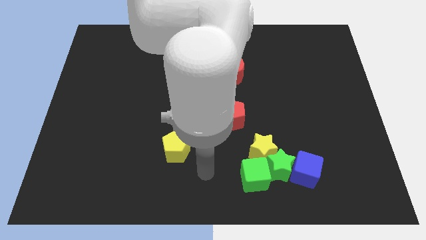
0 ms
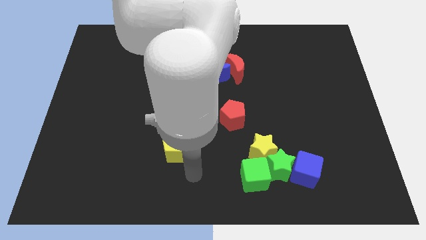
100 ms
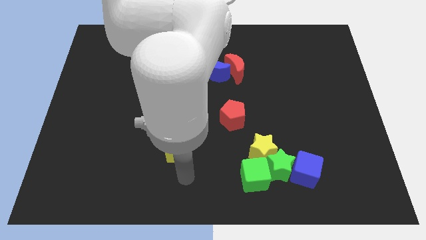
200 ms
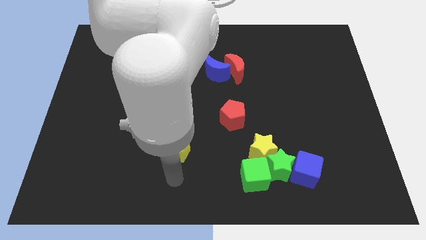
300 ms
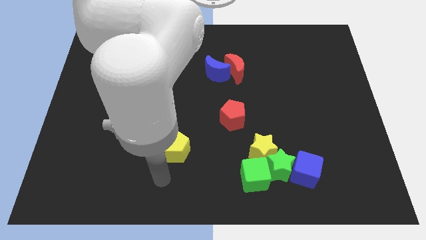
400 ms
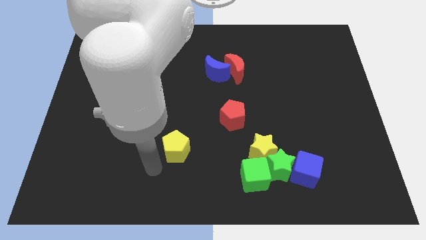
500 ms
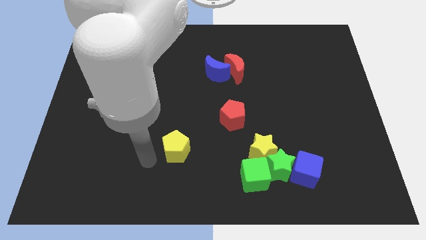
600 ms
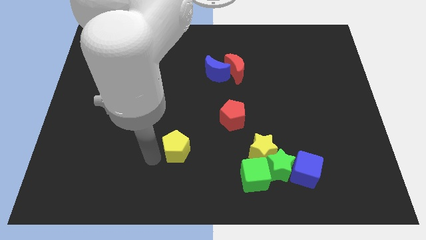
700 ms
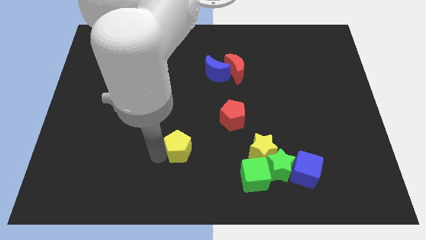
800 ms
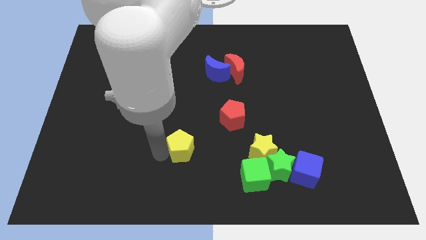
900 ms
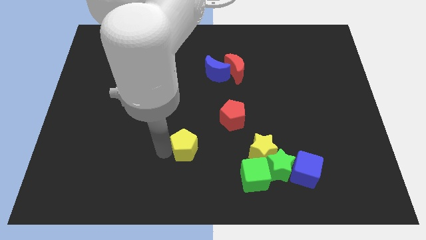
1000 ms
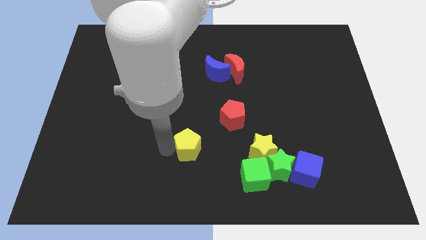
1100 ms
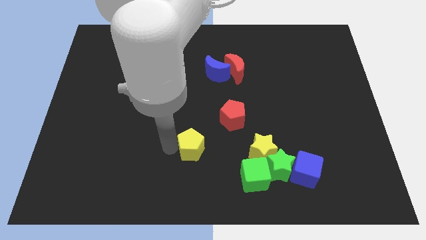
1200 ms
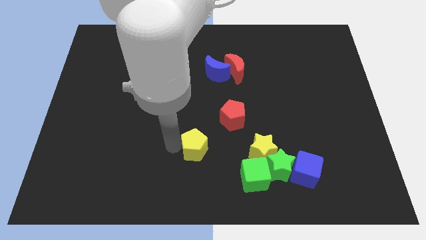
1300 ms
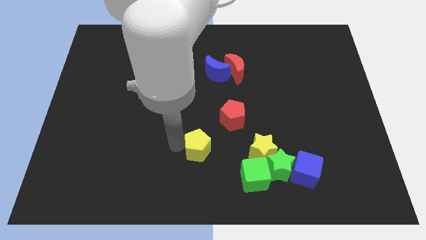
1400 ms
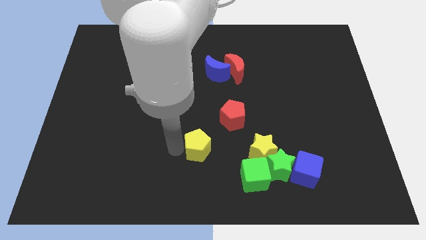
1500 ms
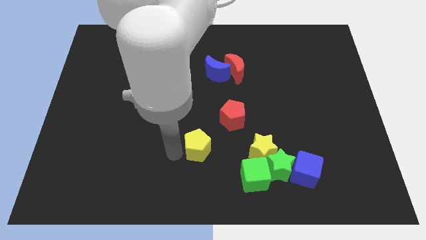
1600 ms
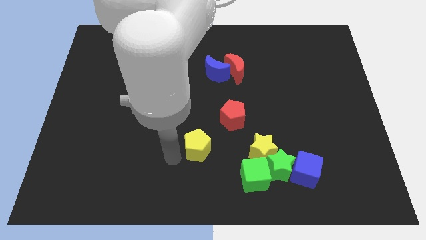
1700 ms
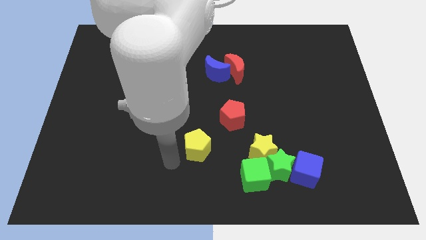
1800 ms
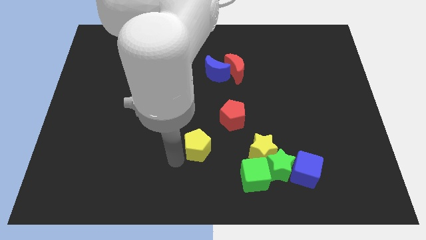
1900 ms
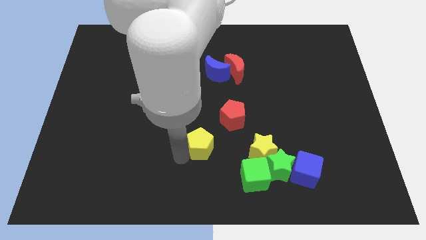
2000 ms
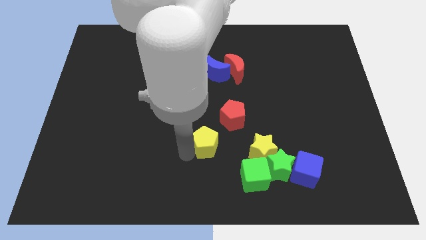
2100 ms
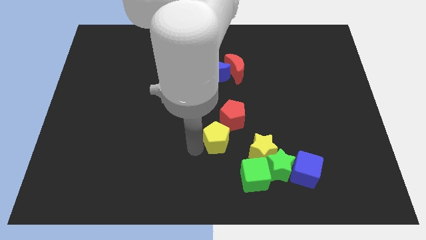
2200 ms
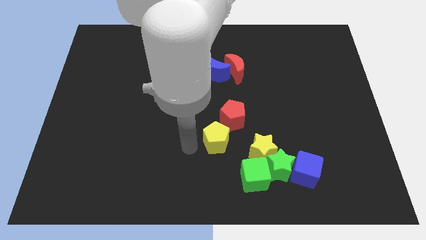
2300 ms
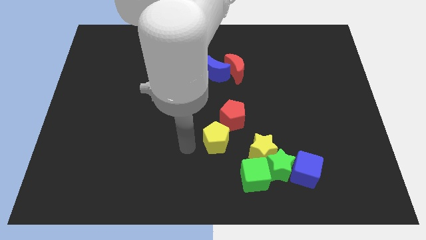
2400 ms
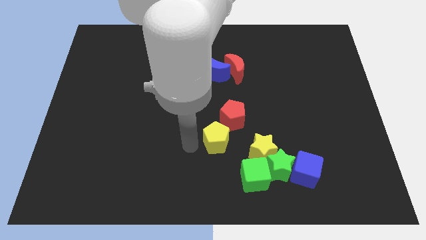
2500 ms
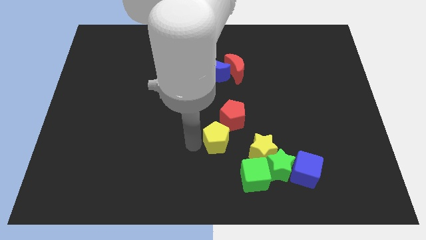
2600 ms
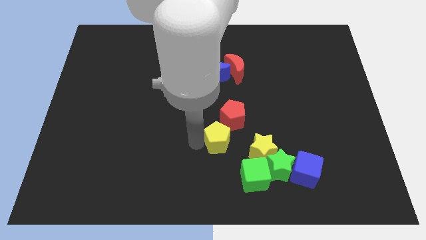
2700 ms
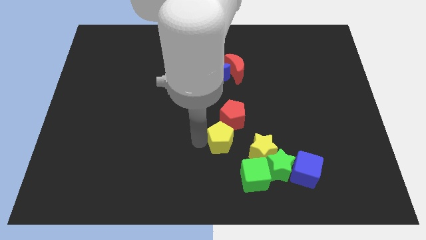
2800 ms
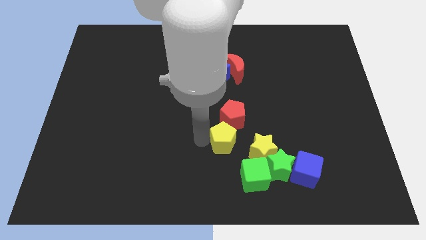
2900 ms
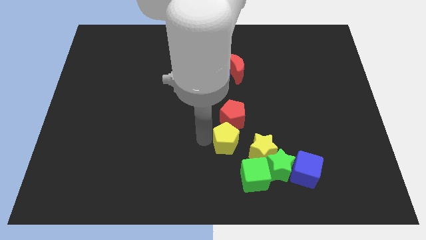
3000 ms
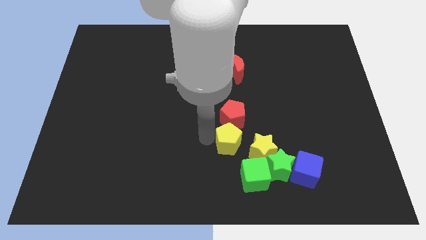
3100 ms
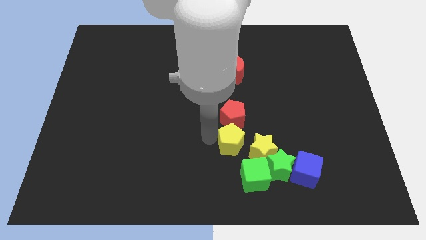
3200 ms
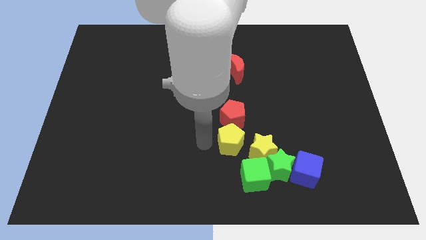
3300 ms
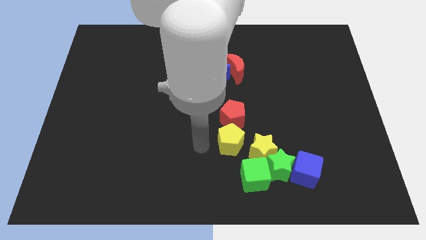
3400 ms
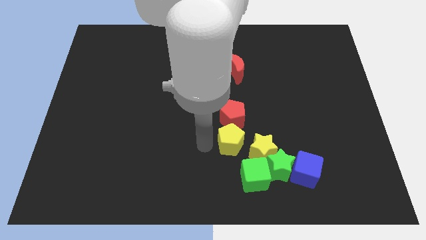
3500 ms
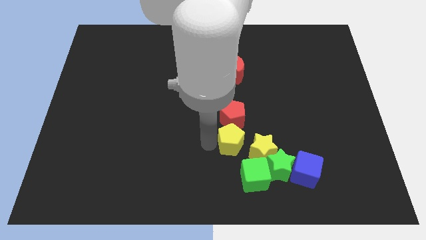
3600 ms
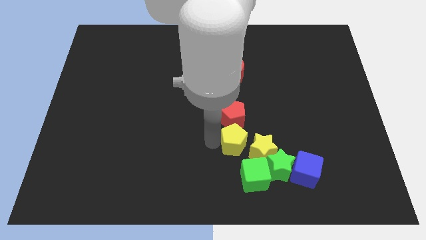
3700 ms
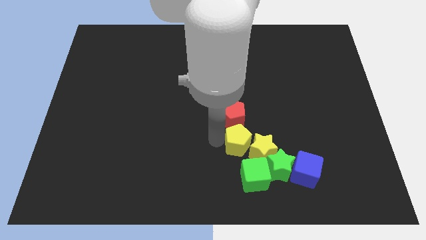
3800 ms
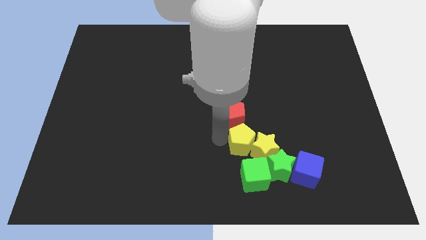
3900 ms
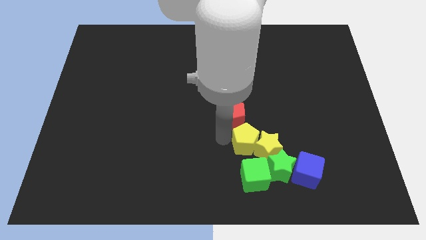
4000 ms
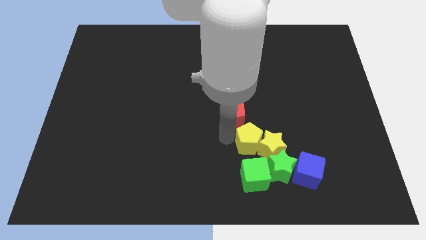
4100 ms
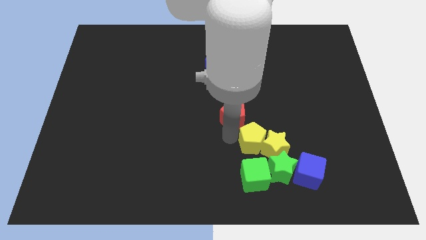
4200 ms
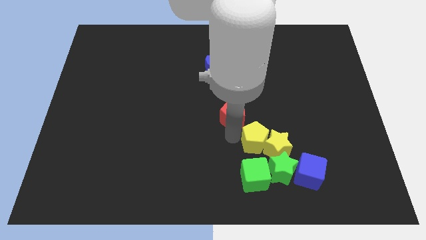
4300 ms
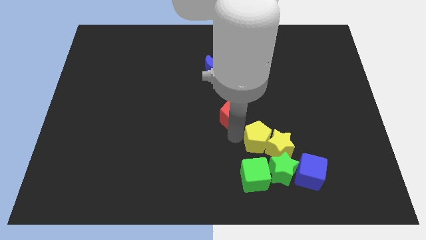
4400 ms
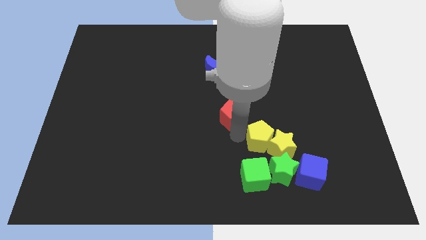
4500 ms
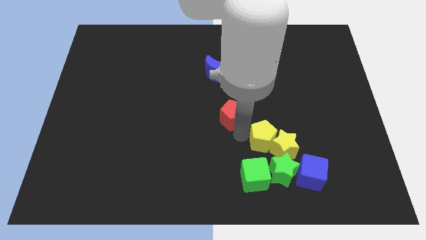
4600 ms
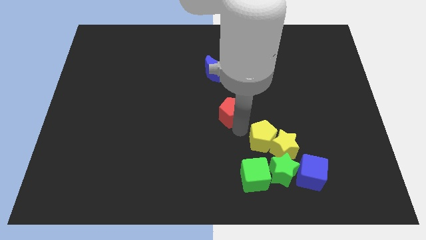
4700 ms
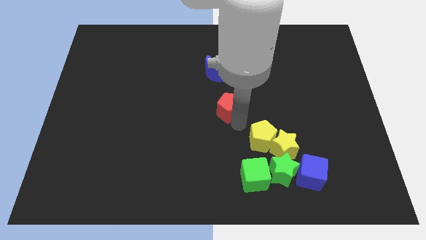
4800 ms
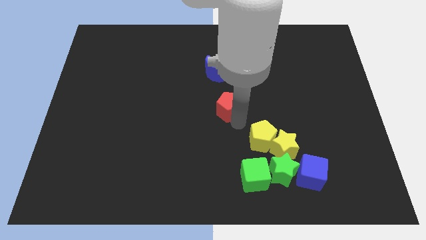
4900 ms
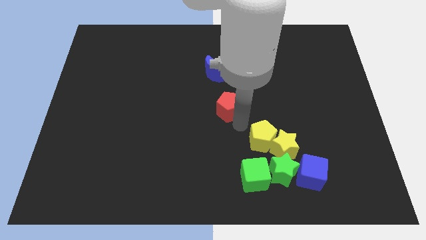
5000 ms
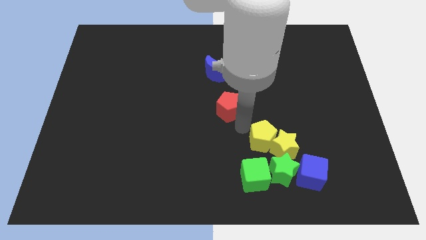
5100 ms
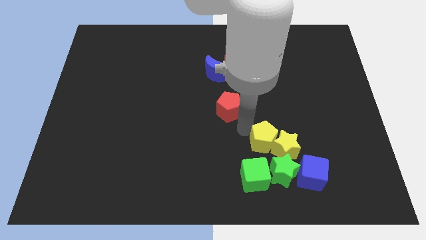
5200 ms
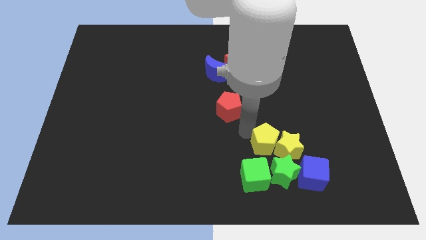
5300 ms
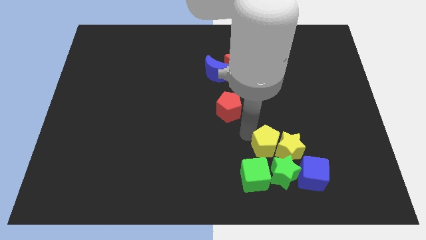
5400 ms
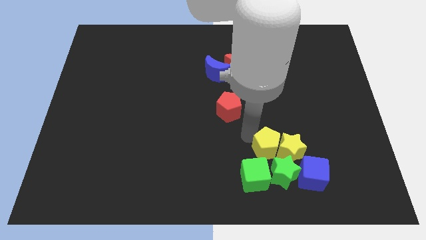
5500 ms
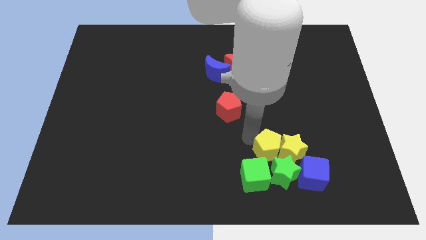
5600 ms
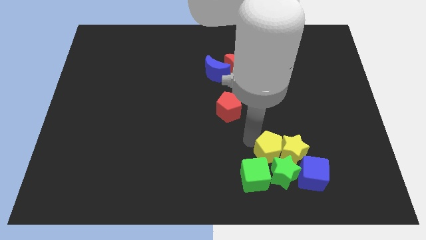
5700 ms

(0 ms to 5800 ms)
move the yellow pentagon next to the green star

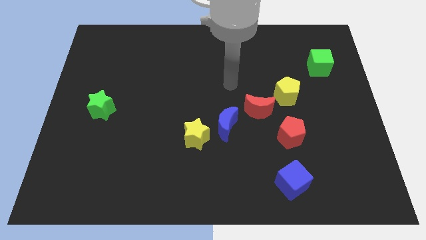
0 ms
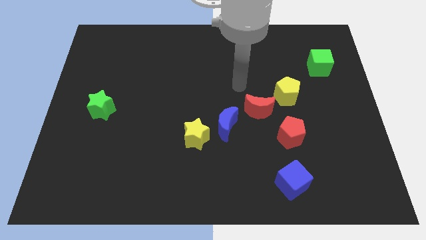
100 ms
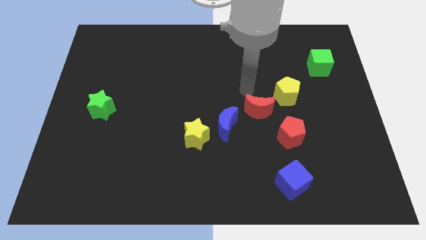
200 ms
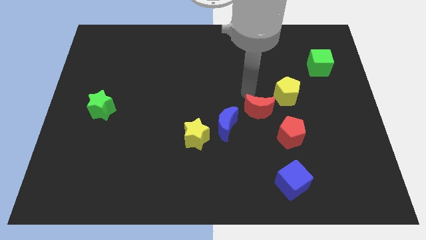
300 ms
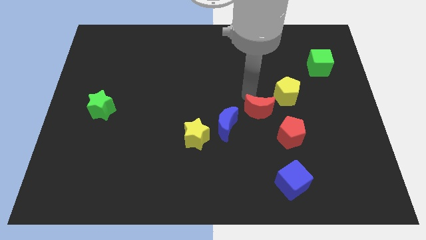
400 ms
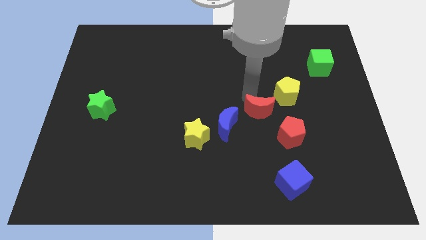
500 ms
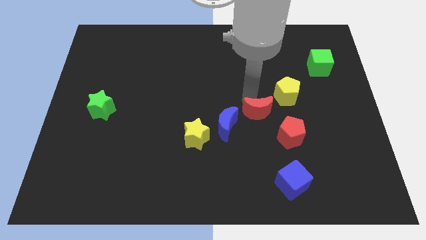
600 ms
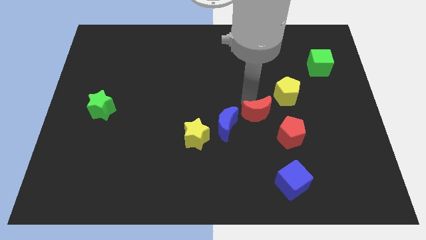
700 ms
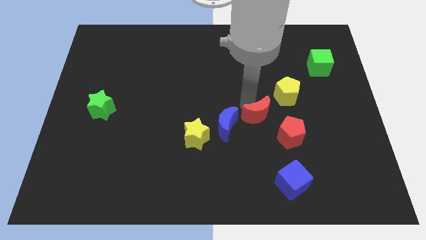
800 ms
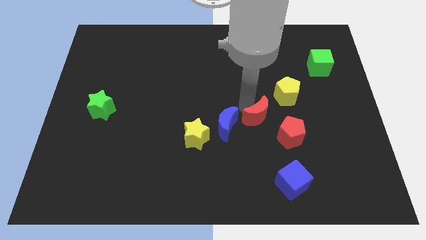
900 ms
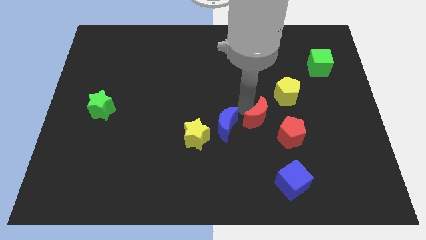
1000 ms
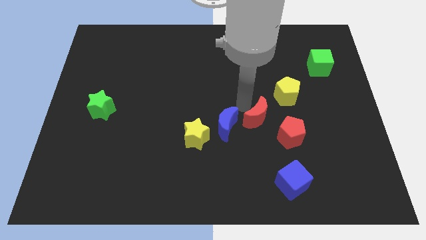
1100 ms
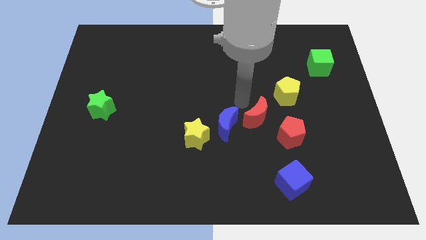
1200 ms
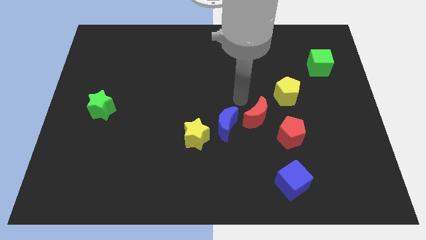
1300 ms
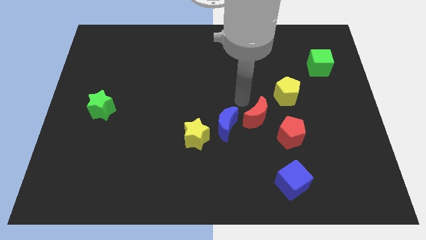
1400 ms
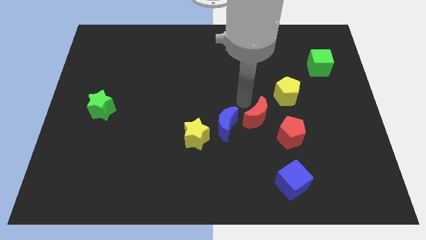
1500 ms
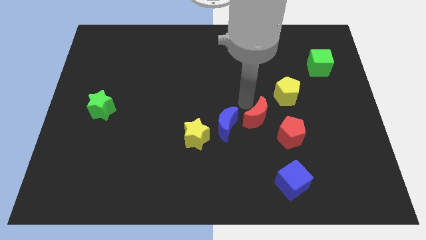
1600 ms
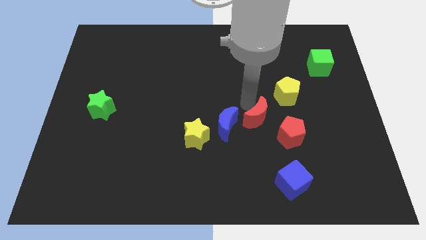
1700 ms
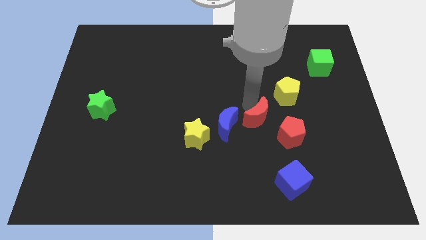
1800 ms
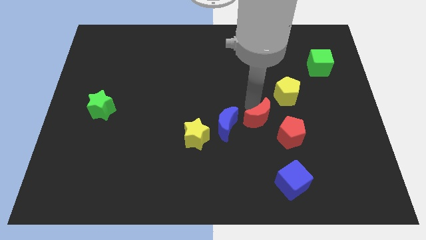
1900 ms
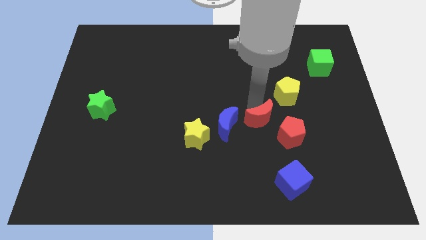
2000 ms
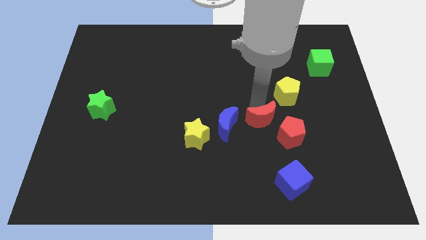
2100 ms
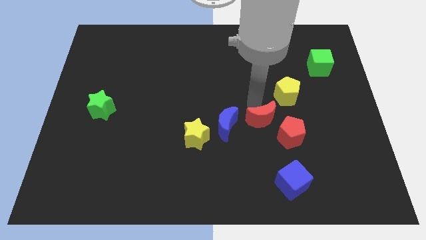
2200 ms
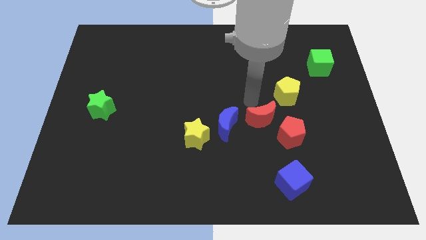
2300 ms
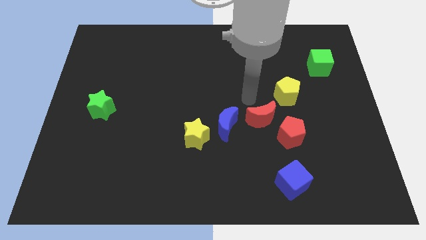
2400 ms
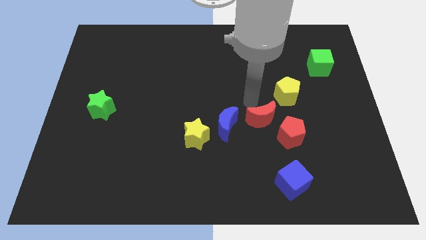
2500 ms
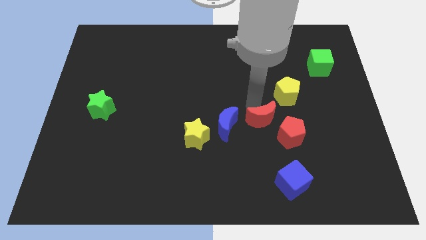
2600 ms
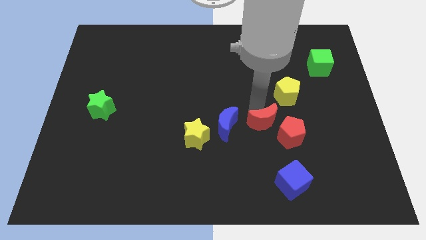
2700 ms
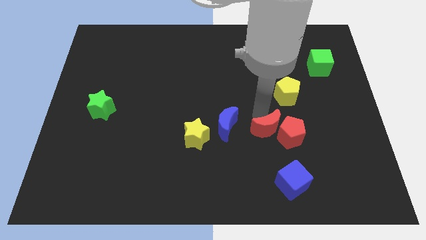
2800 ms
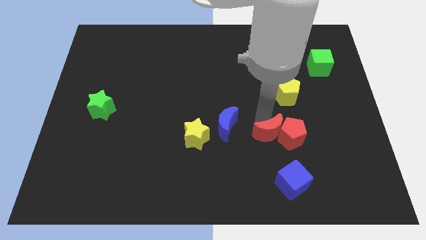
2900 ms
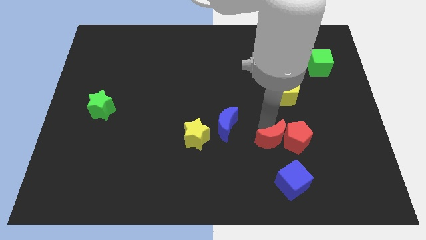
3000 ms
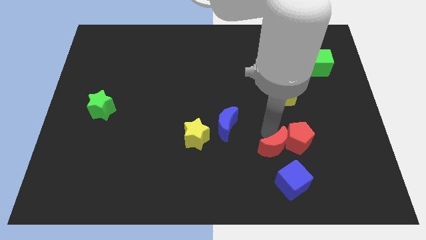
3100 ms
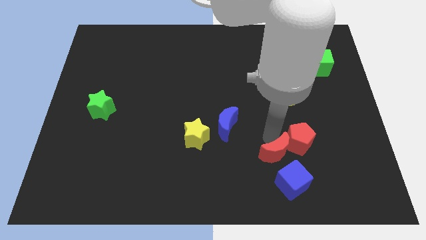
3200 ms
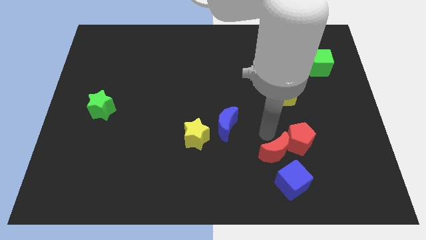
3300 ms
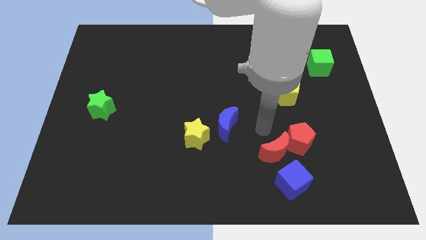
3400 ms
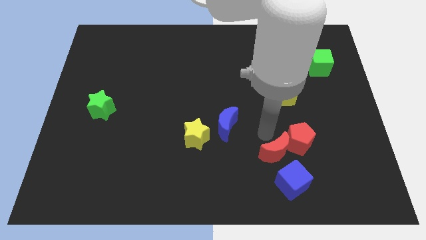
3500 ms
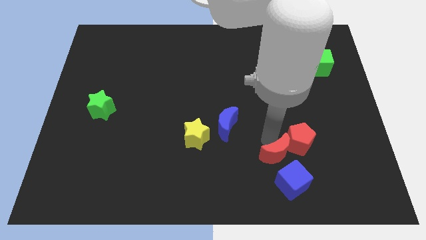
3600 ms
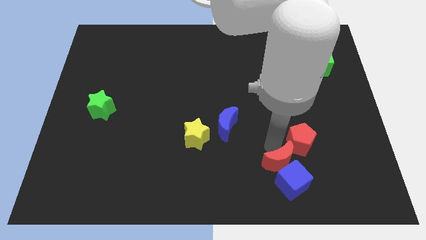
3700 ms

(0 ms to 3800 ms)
put the red moon next to the blue cube
